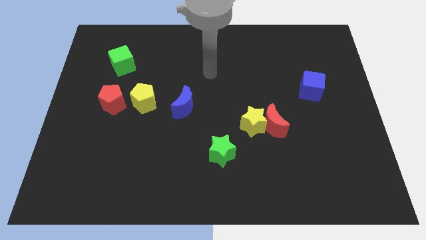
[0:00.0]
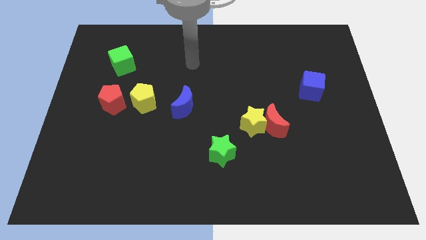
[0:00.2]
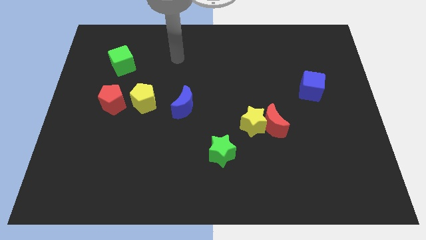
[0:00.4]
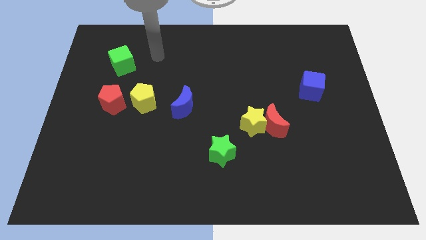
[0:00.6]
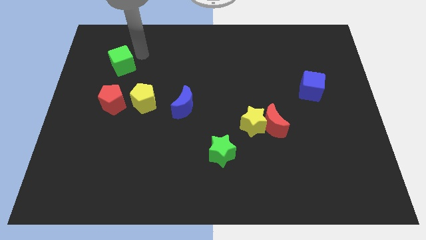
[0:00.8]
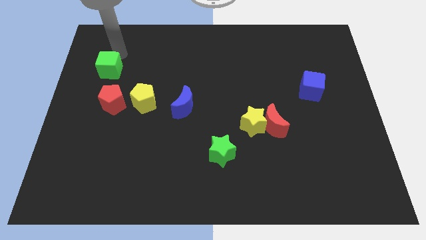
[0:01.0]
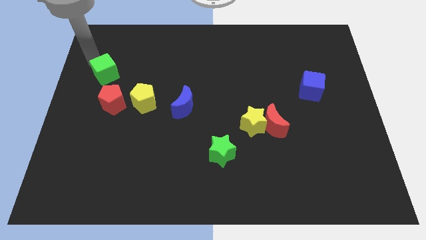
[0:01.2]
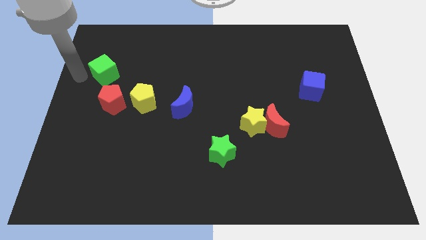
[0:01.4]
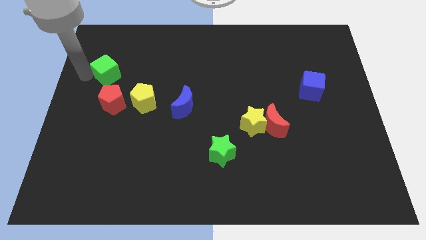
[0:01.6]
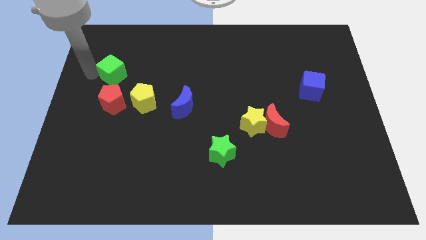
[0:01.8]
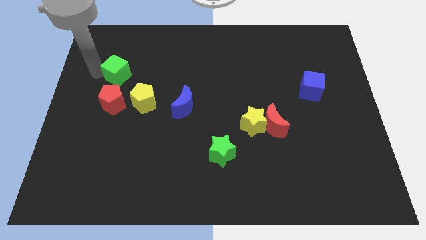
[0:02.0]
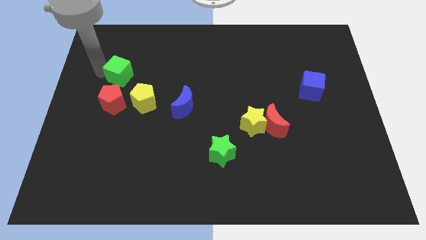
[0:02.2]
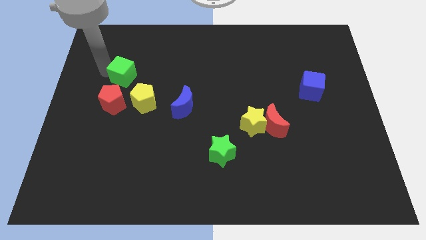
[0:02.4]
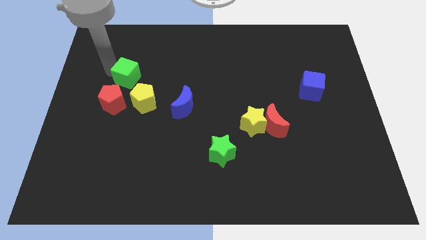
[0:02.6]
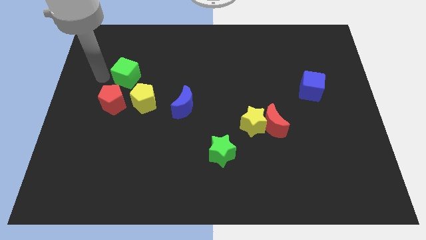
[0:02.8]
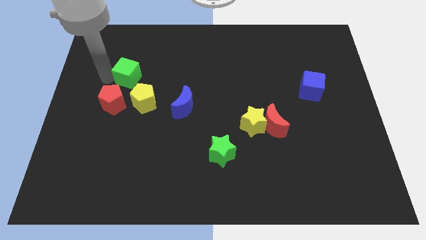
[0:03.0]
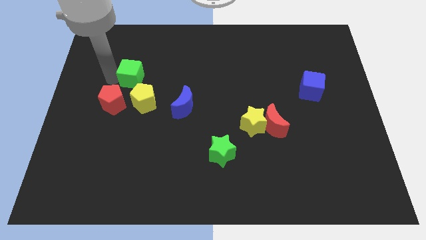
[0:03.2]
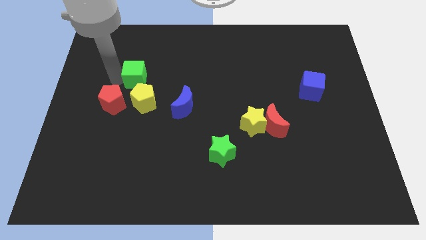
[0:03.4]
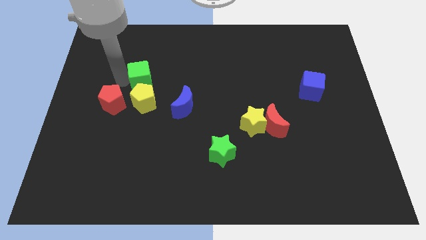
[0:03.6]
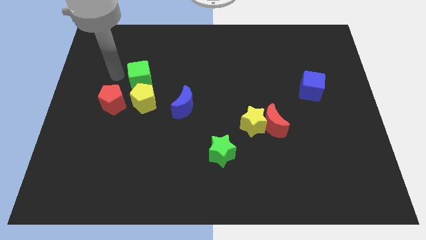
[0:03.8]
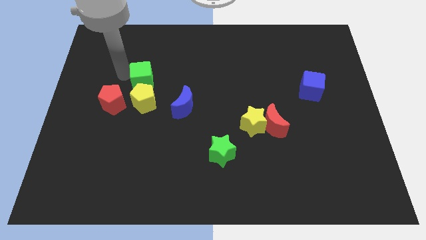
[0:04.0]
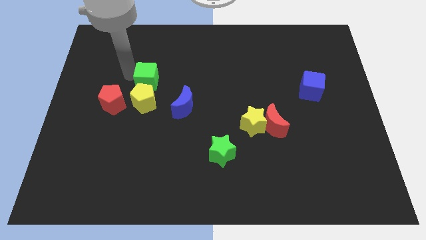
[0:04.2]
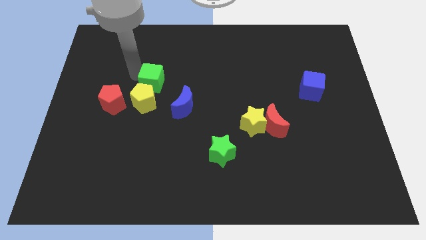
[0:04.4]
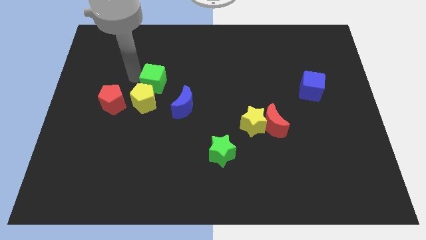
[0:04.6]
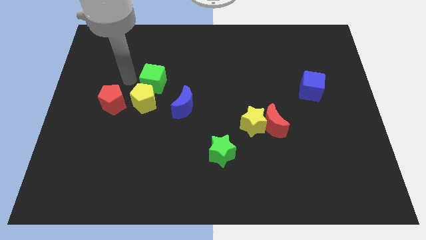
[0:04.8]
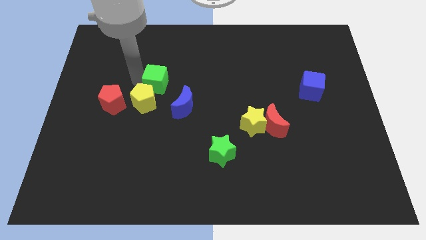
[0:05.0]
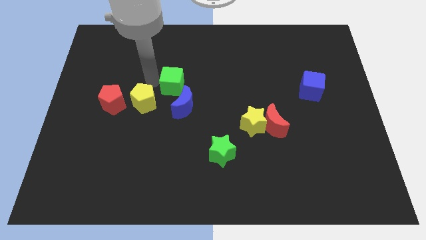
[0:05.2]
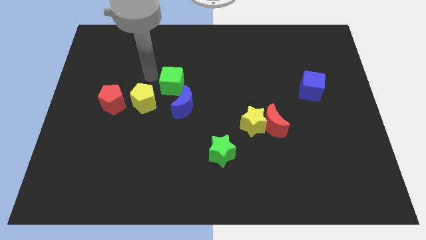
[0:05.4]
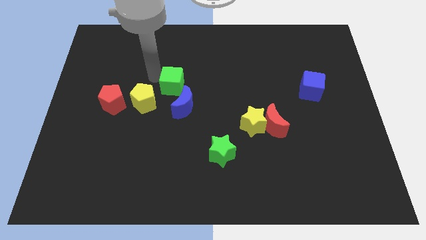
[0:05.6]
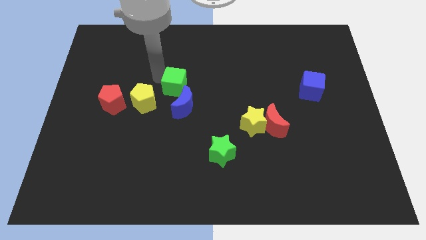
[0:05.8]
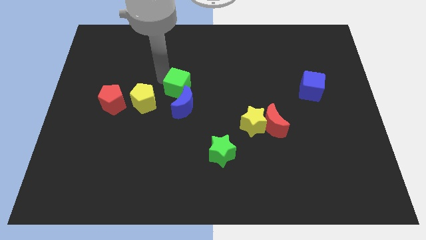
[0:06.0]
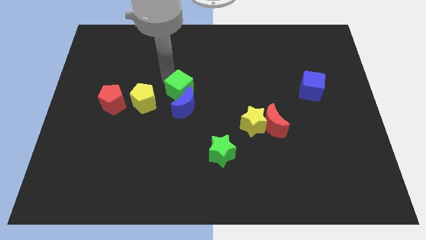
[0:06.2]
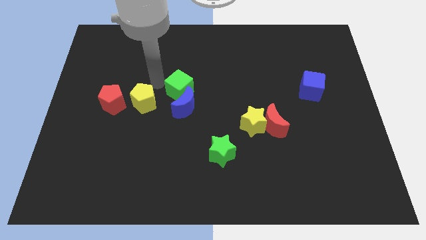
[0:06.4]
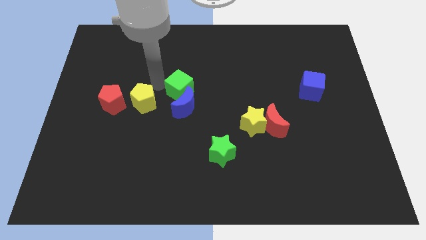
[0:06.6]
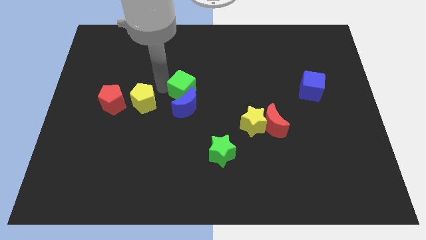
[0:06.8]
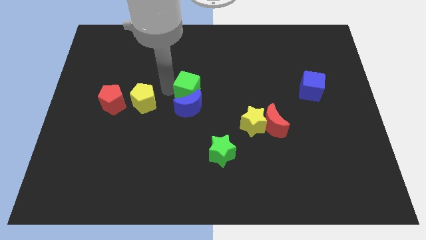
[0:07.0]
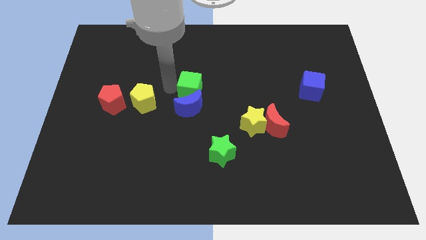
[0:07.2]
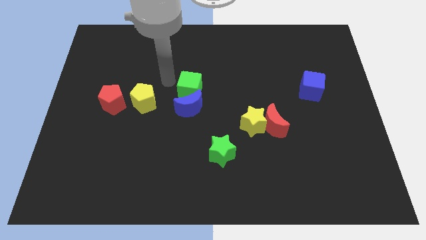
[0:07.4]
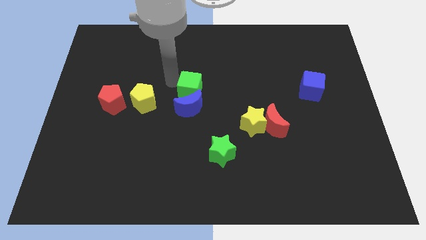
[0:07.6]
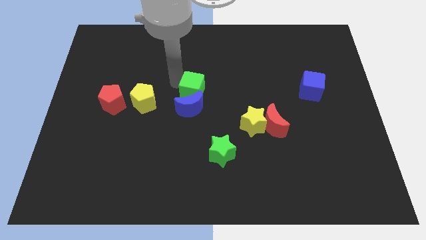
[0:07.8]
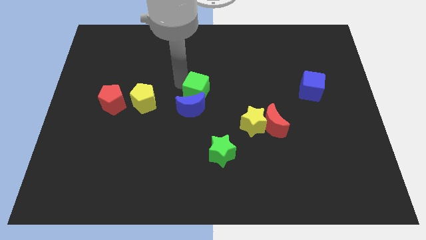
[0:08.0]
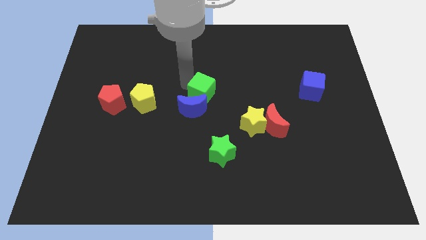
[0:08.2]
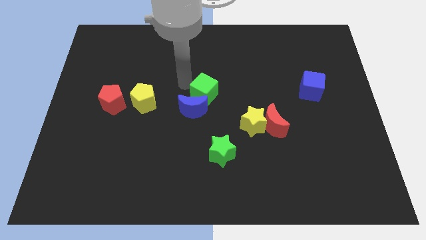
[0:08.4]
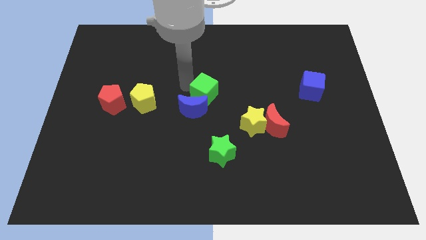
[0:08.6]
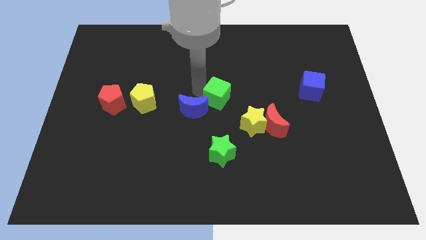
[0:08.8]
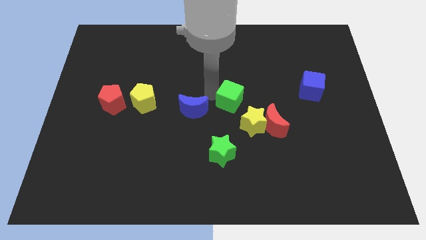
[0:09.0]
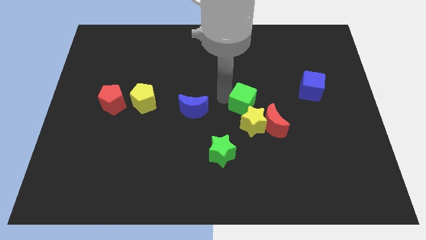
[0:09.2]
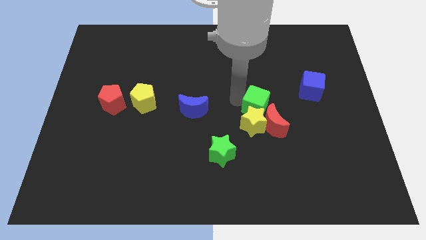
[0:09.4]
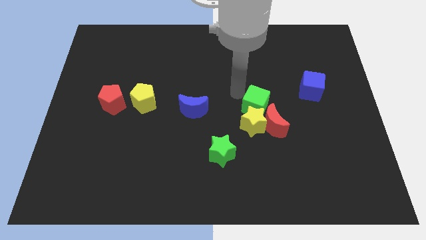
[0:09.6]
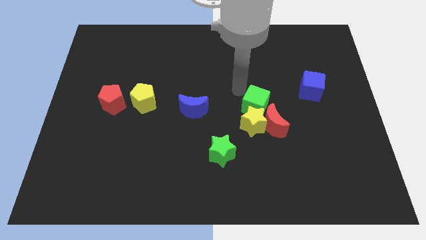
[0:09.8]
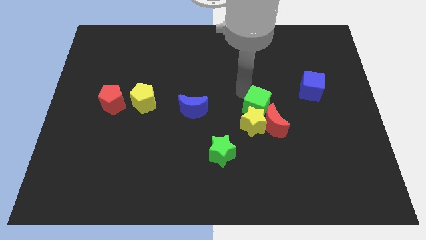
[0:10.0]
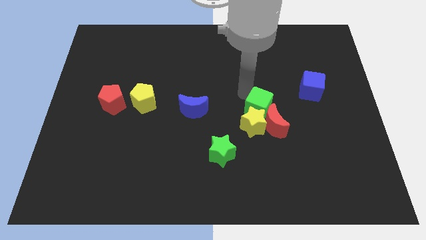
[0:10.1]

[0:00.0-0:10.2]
push the green cube next to the red moon

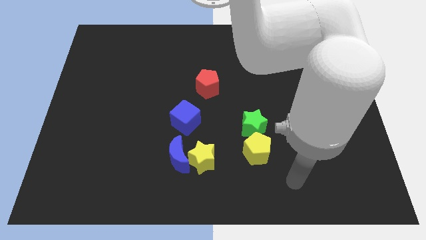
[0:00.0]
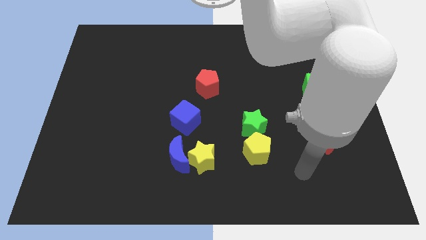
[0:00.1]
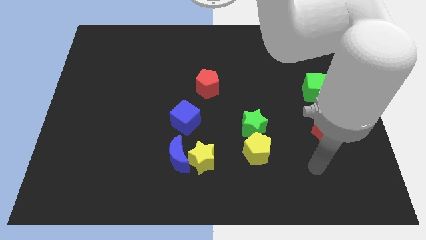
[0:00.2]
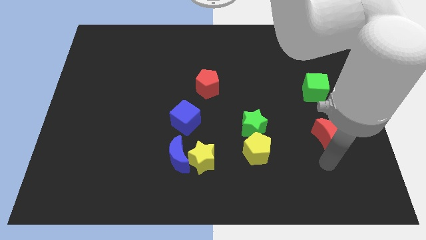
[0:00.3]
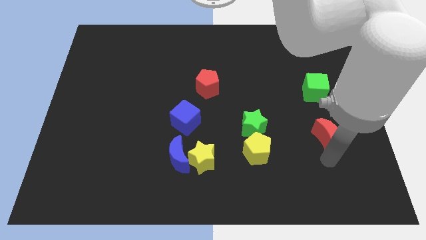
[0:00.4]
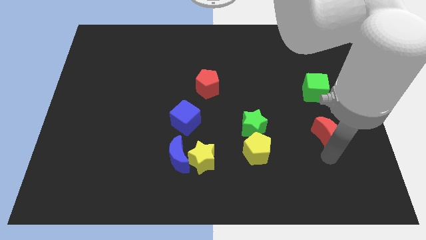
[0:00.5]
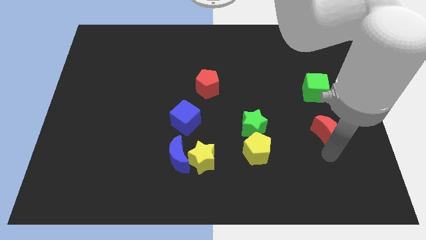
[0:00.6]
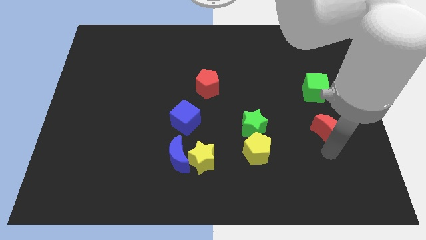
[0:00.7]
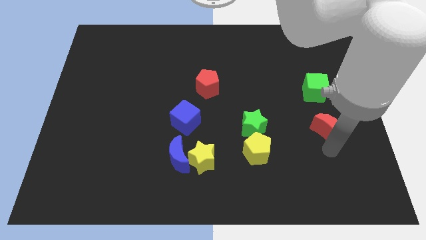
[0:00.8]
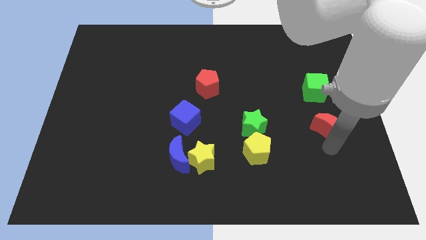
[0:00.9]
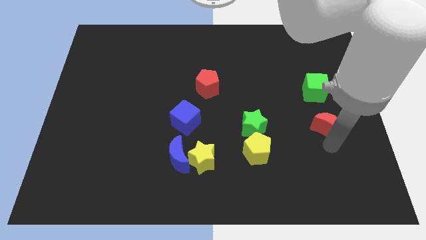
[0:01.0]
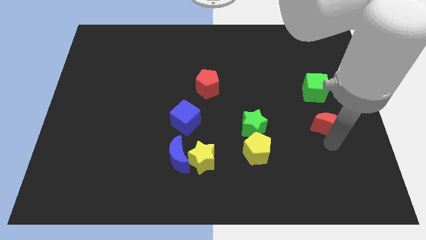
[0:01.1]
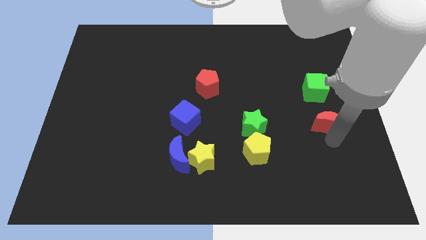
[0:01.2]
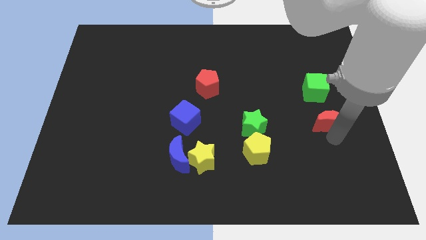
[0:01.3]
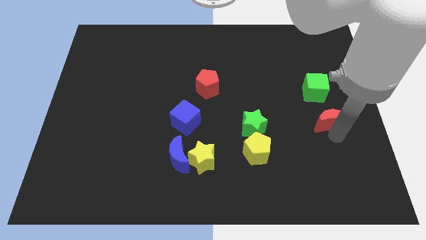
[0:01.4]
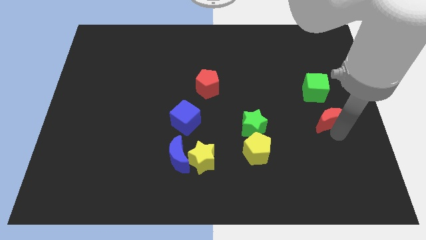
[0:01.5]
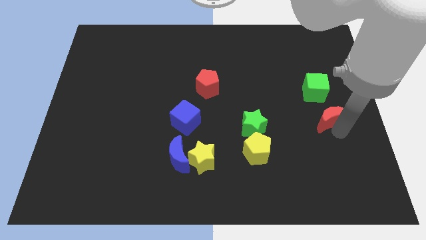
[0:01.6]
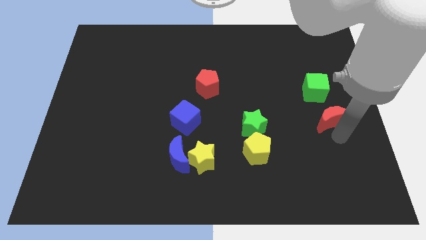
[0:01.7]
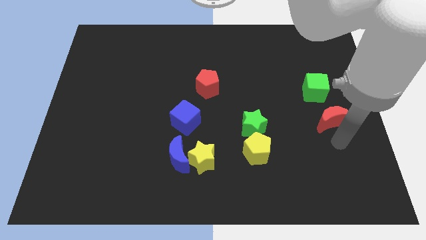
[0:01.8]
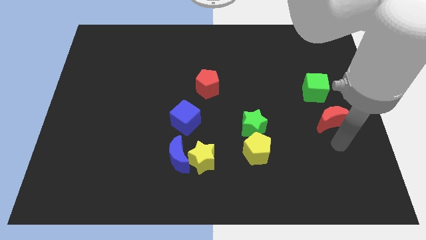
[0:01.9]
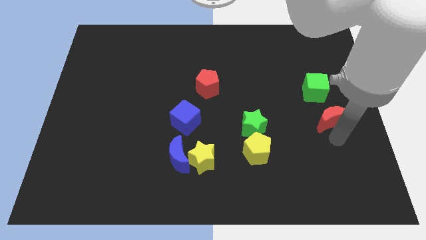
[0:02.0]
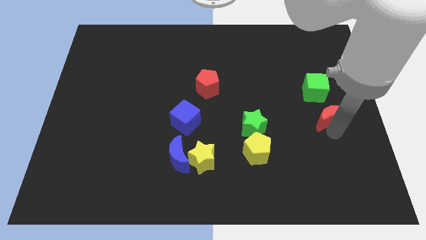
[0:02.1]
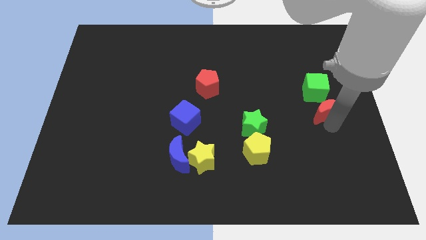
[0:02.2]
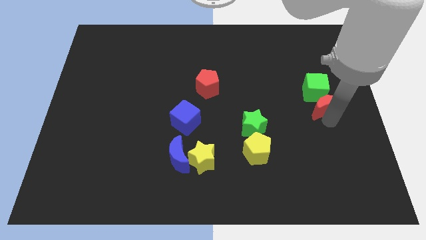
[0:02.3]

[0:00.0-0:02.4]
push the red moon to the green cube
